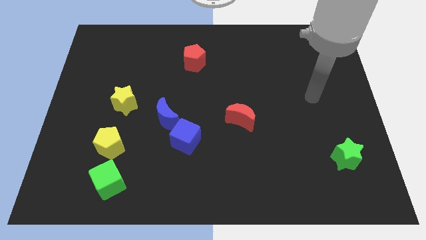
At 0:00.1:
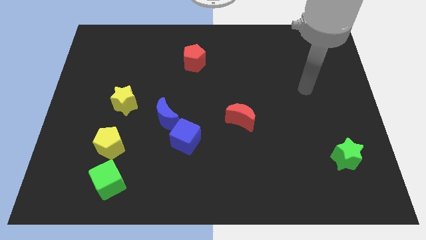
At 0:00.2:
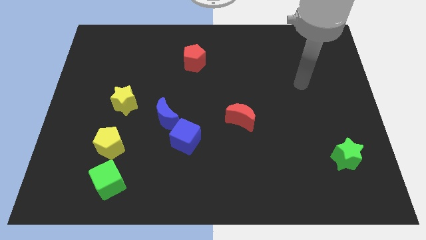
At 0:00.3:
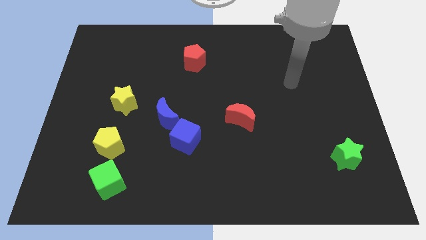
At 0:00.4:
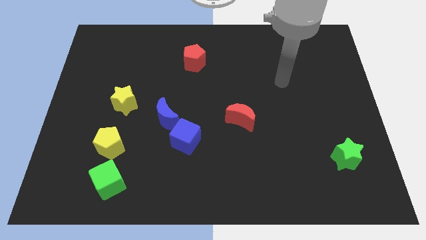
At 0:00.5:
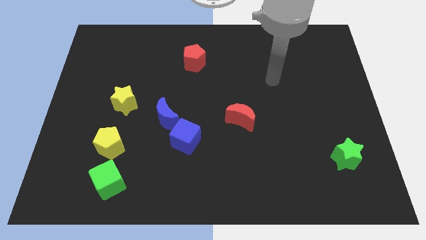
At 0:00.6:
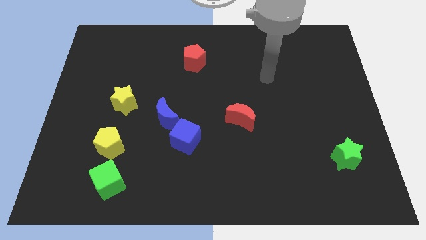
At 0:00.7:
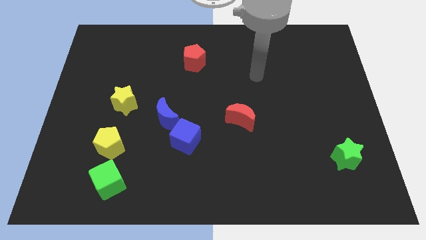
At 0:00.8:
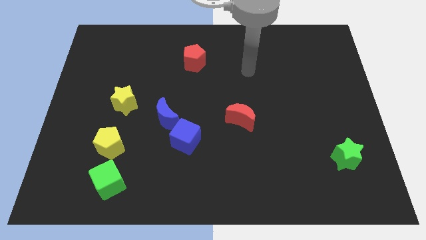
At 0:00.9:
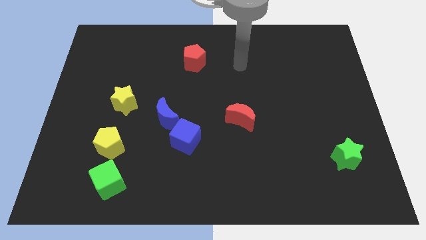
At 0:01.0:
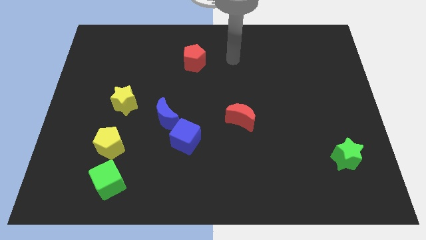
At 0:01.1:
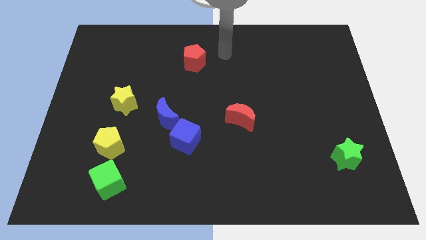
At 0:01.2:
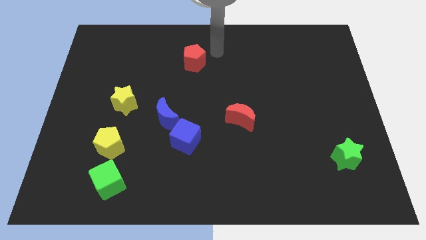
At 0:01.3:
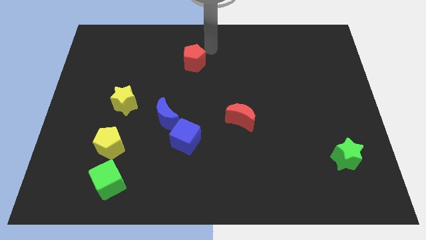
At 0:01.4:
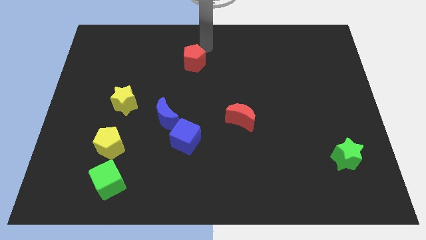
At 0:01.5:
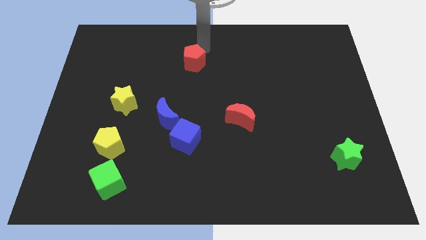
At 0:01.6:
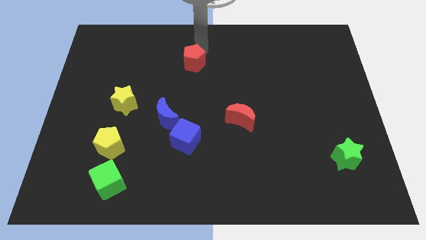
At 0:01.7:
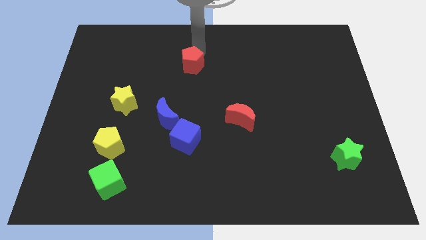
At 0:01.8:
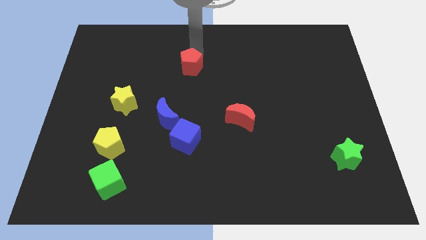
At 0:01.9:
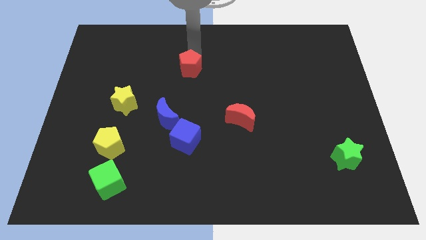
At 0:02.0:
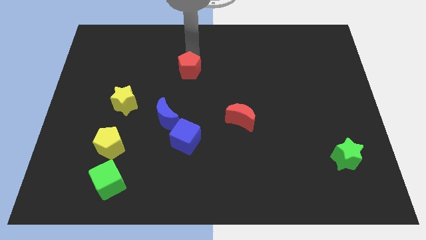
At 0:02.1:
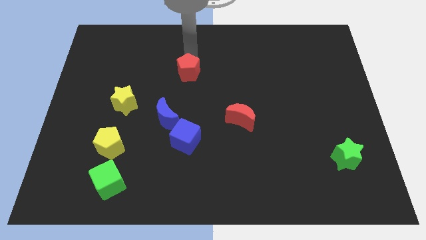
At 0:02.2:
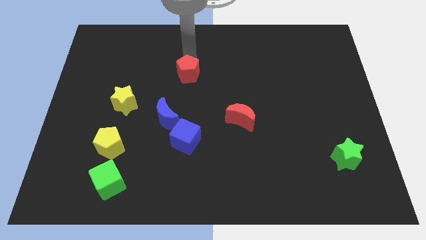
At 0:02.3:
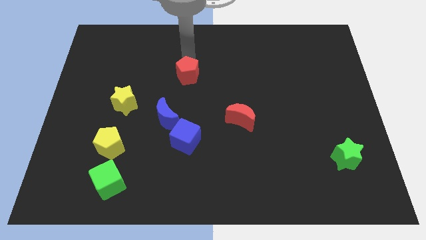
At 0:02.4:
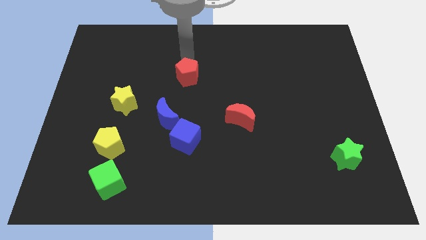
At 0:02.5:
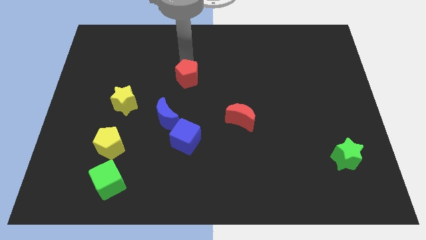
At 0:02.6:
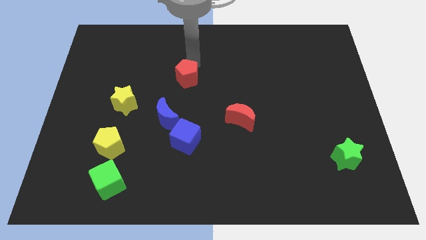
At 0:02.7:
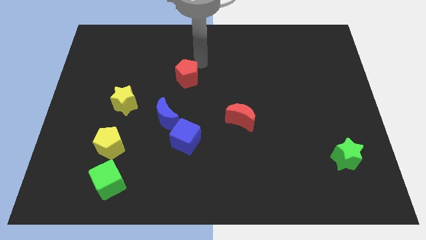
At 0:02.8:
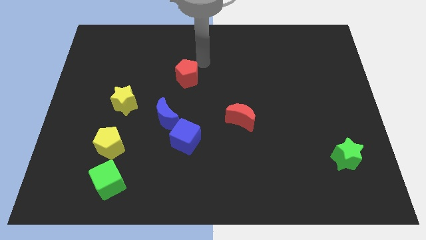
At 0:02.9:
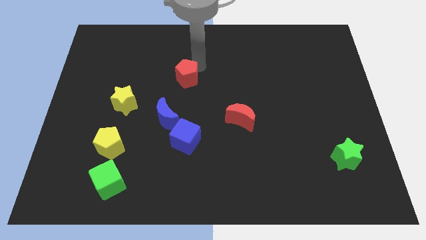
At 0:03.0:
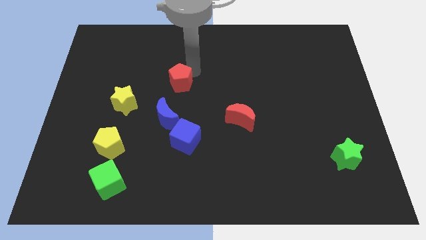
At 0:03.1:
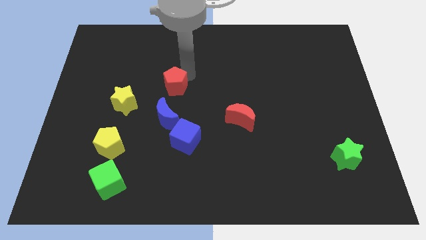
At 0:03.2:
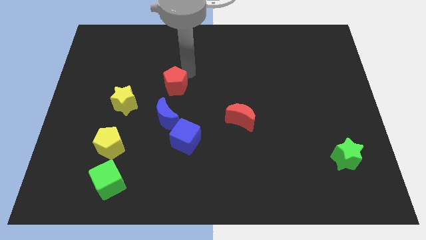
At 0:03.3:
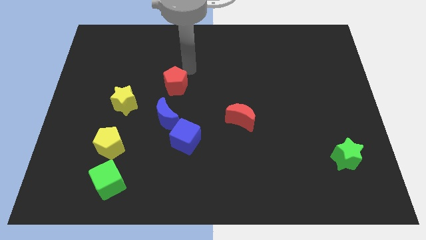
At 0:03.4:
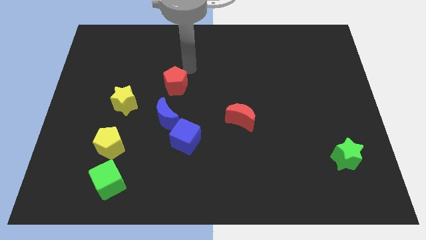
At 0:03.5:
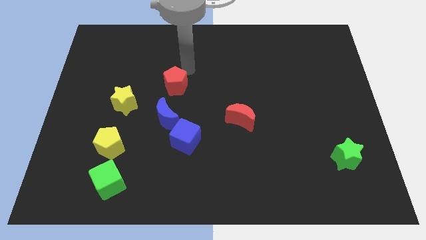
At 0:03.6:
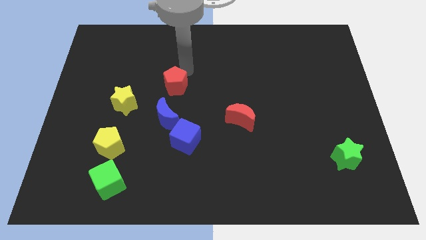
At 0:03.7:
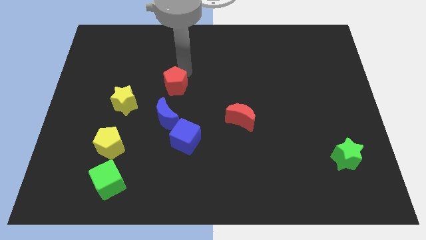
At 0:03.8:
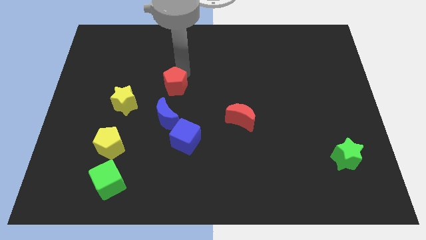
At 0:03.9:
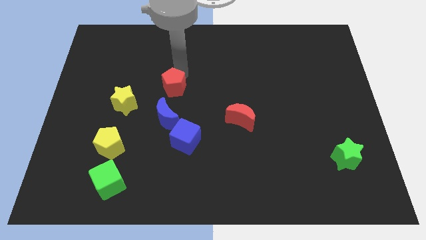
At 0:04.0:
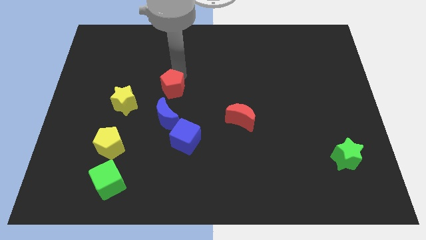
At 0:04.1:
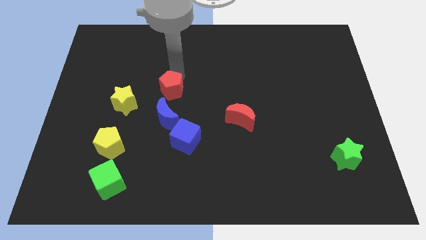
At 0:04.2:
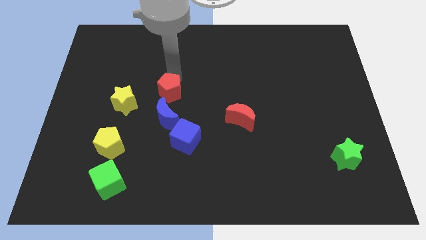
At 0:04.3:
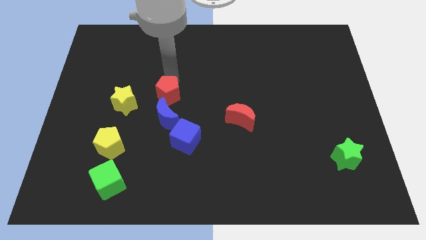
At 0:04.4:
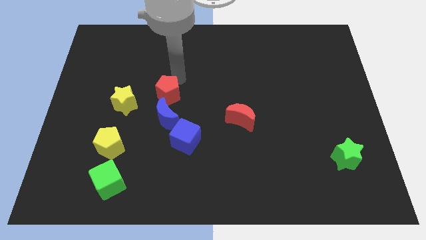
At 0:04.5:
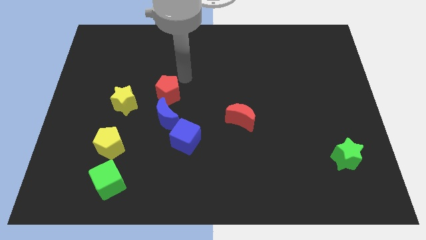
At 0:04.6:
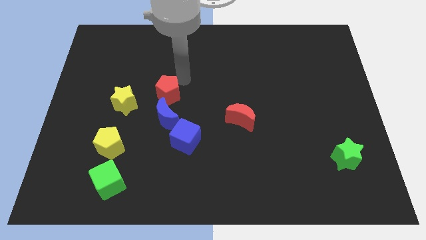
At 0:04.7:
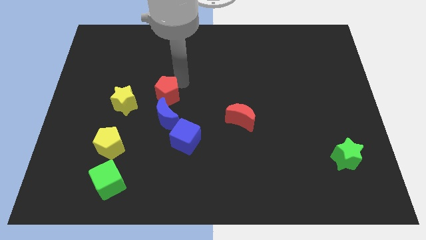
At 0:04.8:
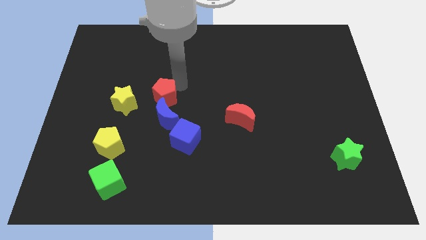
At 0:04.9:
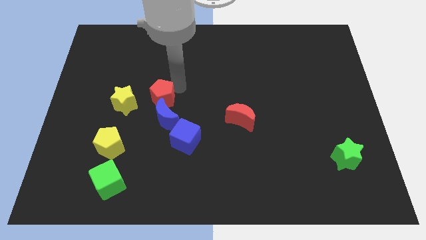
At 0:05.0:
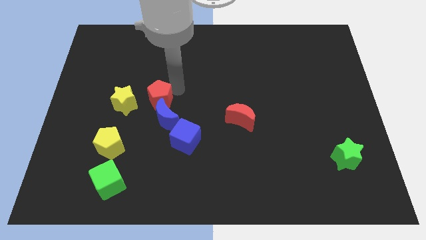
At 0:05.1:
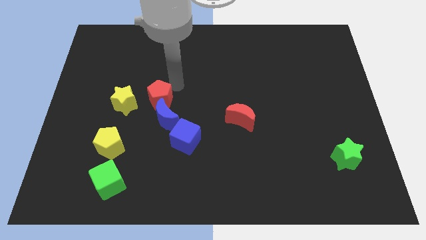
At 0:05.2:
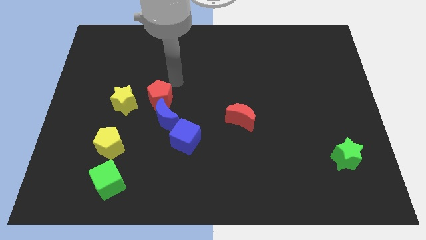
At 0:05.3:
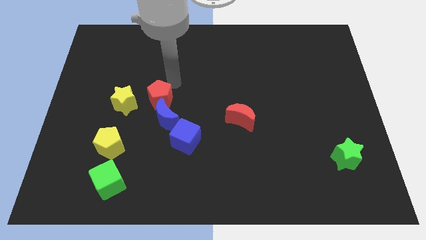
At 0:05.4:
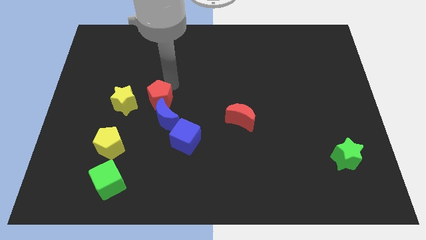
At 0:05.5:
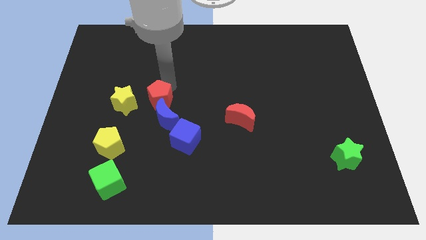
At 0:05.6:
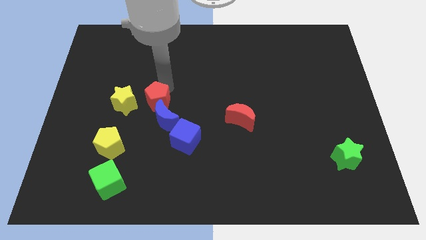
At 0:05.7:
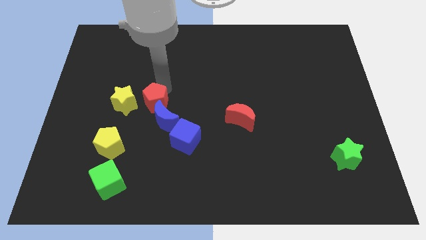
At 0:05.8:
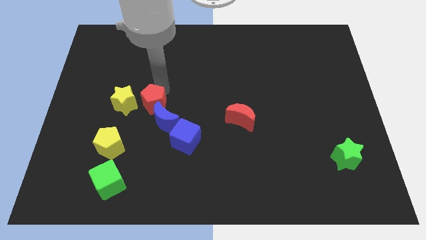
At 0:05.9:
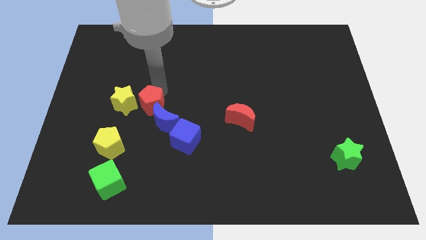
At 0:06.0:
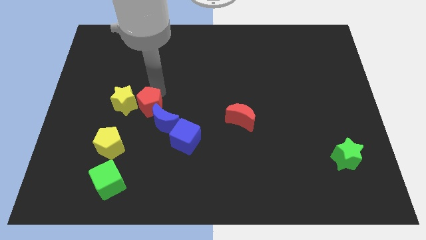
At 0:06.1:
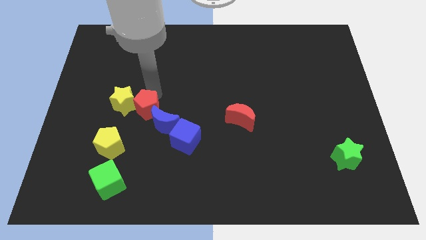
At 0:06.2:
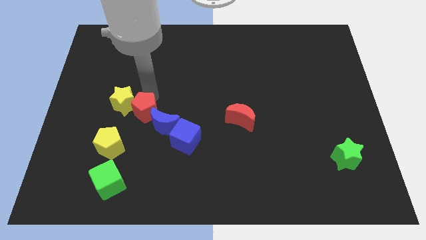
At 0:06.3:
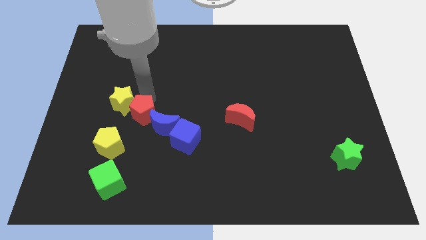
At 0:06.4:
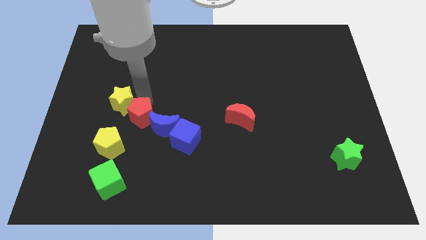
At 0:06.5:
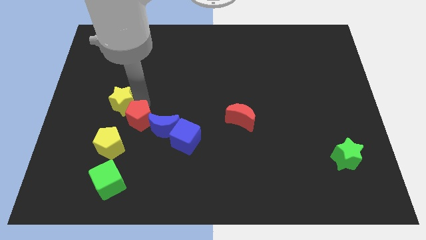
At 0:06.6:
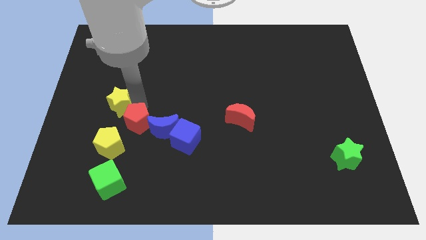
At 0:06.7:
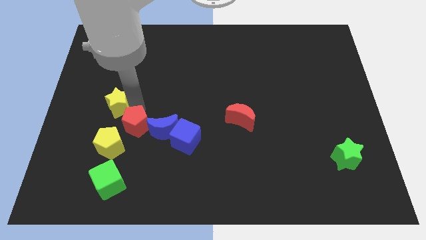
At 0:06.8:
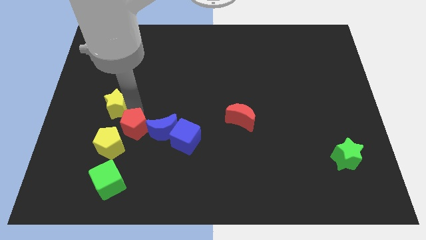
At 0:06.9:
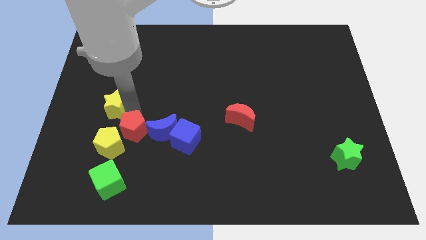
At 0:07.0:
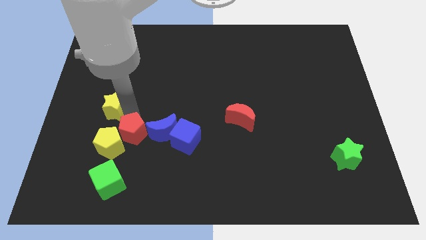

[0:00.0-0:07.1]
put the red pentagon to the bottom left of the blue moon

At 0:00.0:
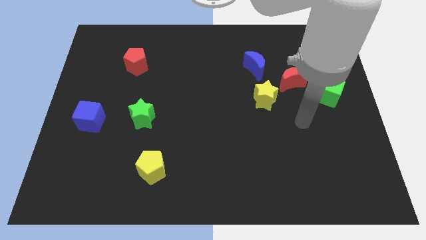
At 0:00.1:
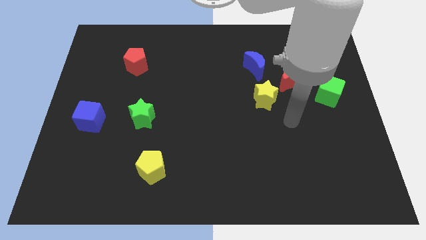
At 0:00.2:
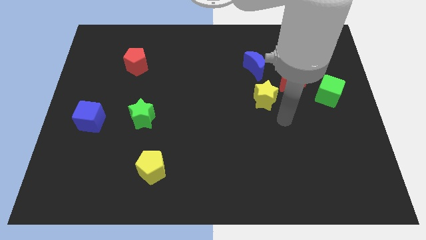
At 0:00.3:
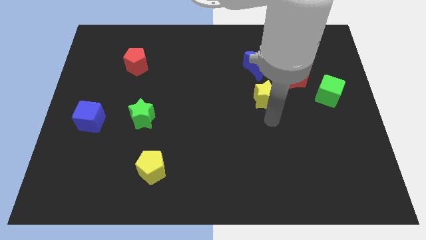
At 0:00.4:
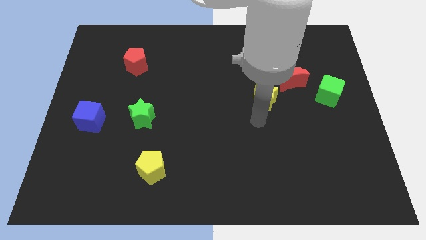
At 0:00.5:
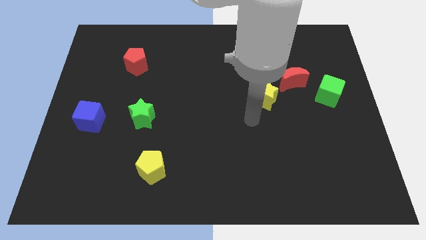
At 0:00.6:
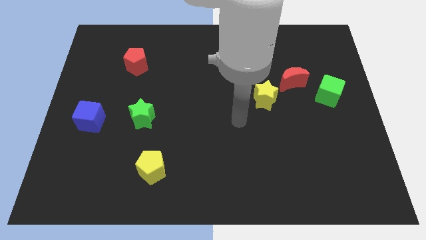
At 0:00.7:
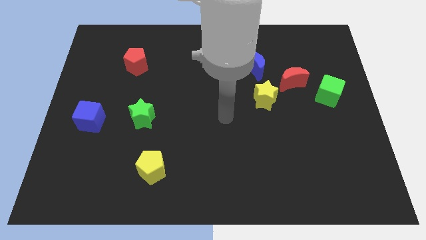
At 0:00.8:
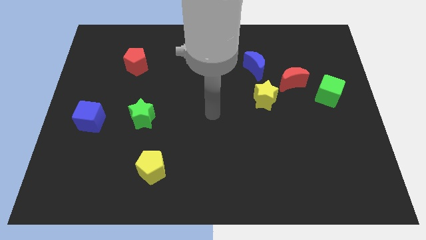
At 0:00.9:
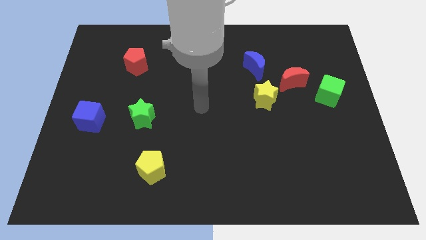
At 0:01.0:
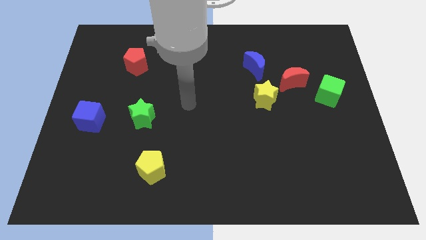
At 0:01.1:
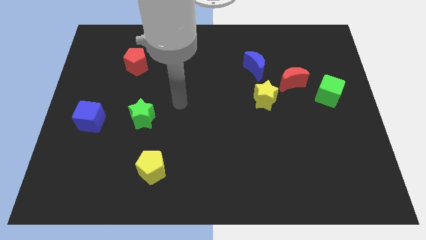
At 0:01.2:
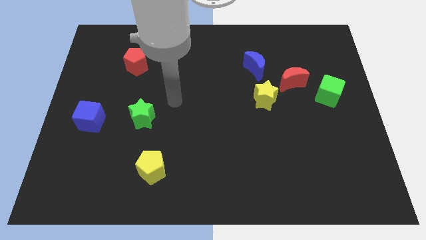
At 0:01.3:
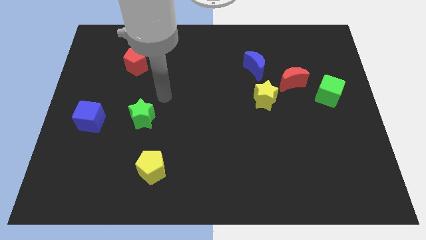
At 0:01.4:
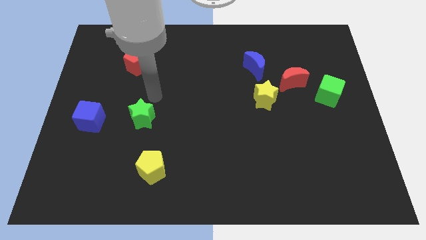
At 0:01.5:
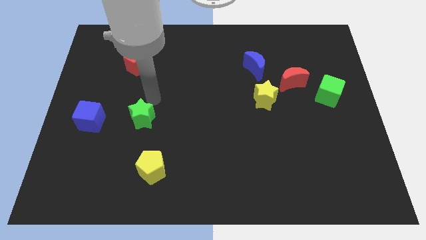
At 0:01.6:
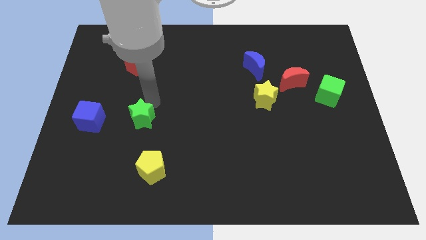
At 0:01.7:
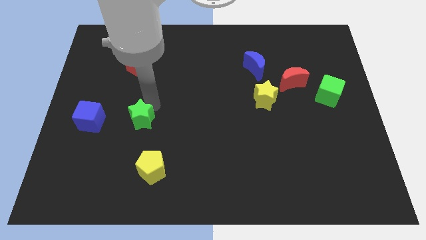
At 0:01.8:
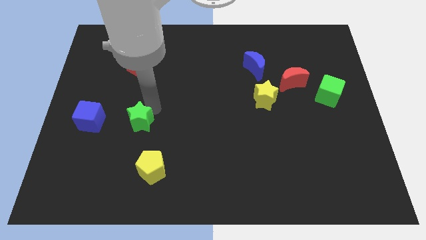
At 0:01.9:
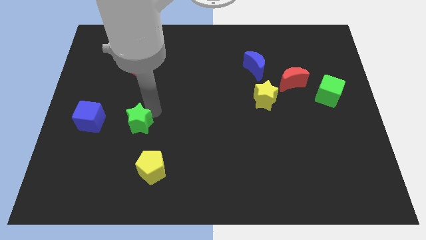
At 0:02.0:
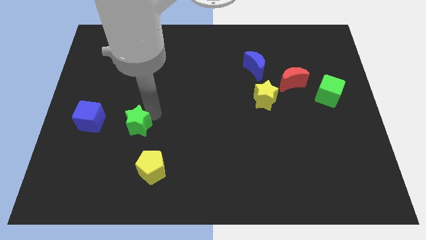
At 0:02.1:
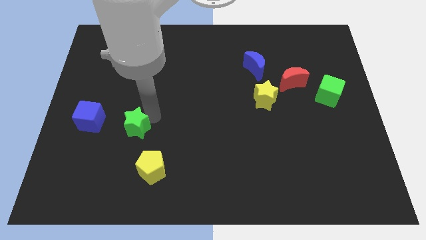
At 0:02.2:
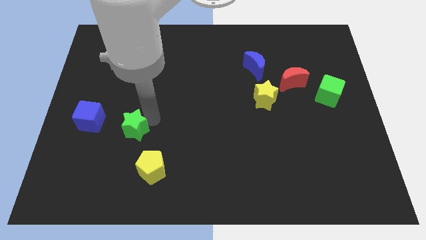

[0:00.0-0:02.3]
move the green star diagonally up and to the left of the yellow pentagon
